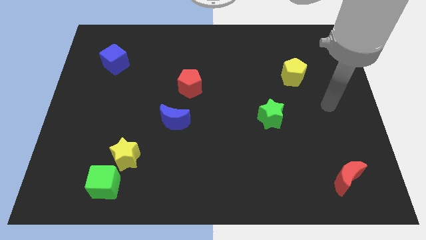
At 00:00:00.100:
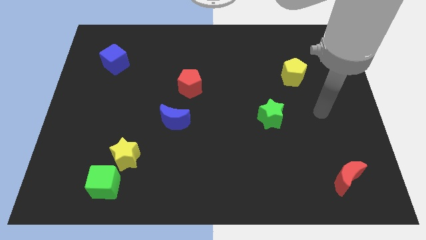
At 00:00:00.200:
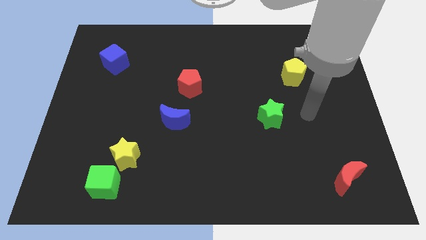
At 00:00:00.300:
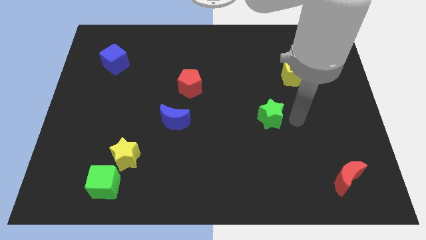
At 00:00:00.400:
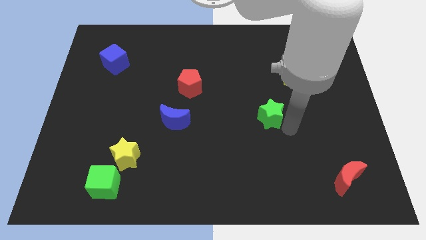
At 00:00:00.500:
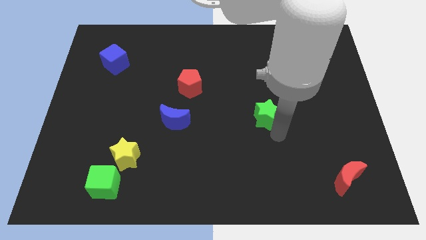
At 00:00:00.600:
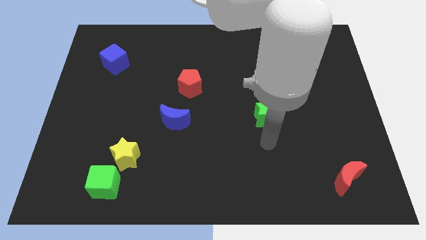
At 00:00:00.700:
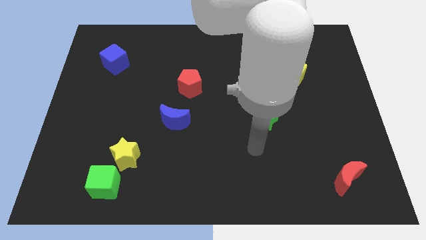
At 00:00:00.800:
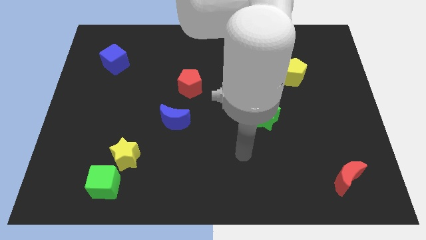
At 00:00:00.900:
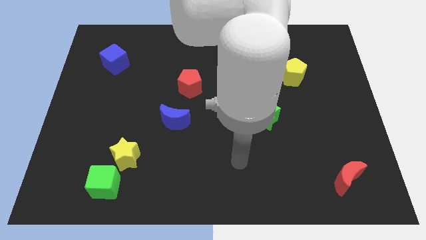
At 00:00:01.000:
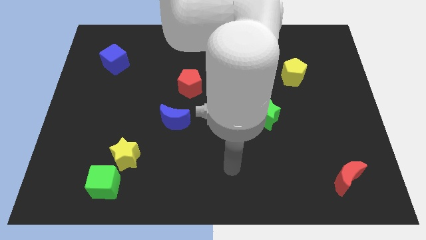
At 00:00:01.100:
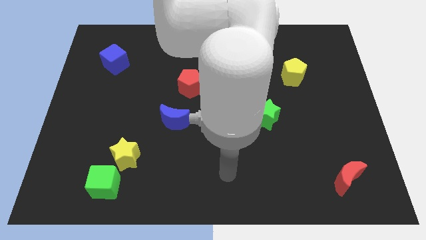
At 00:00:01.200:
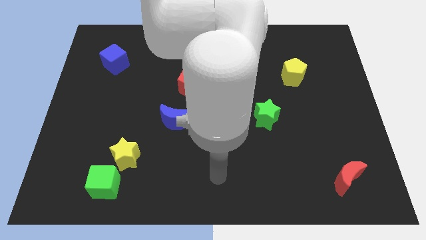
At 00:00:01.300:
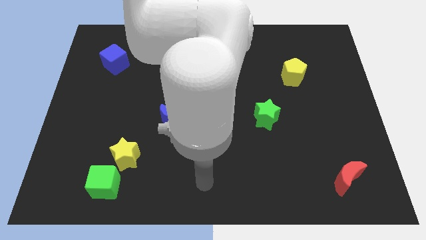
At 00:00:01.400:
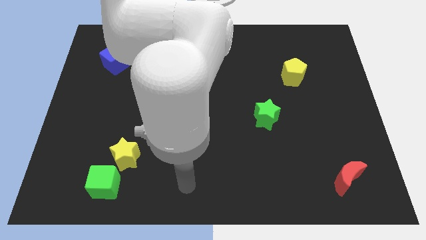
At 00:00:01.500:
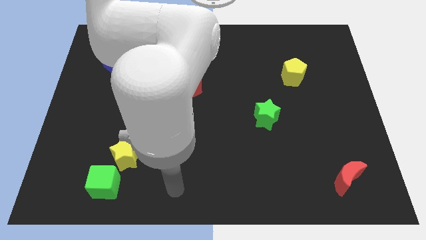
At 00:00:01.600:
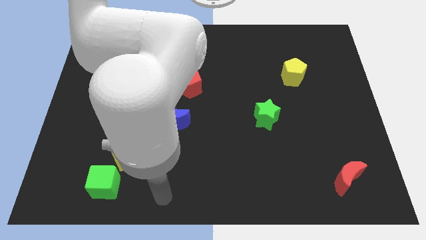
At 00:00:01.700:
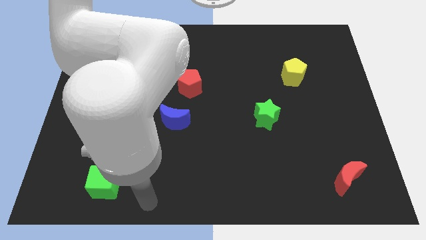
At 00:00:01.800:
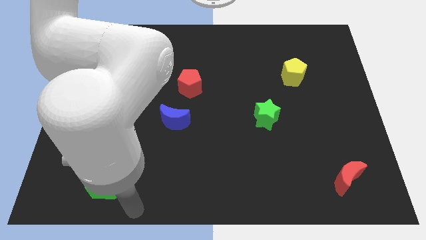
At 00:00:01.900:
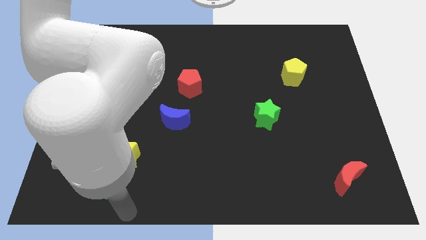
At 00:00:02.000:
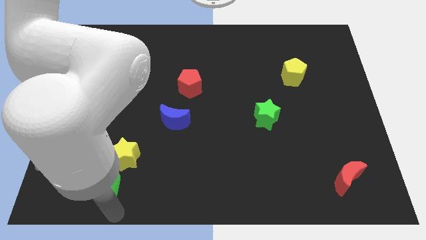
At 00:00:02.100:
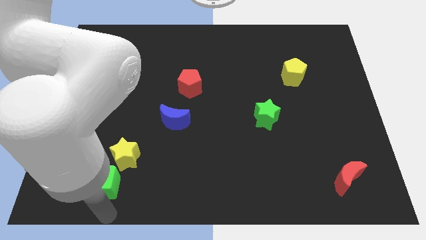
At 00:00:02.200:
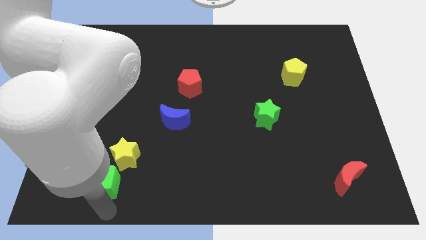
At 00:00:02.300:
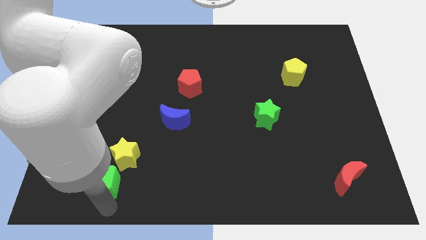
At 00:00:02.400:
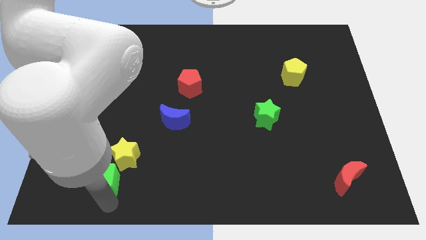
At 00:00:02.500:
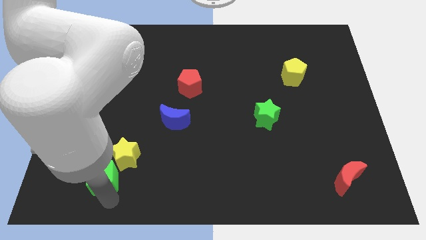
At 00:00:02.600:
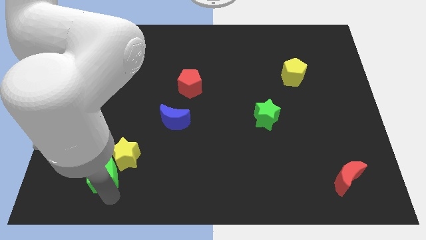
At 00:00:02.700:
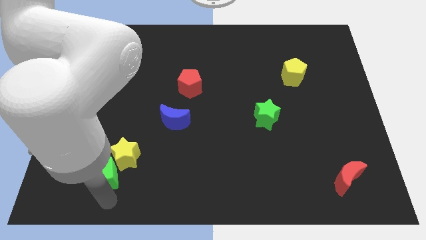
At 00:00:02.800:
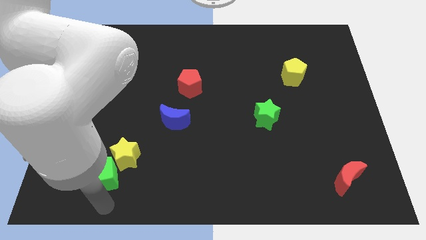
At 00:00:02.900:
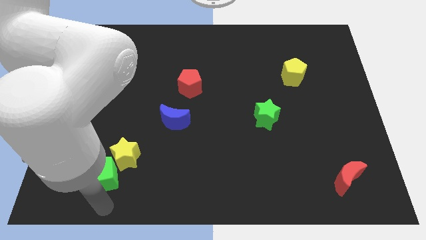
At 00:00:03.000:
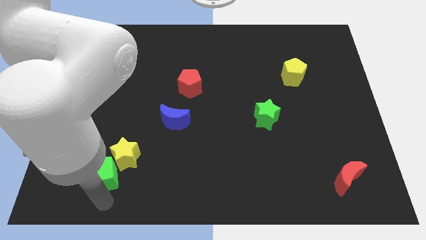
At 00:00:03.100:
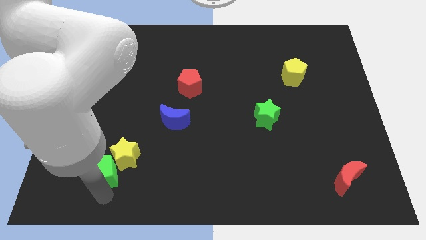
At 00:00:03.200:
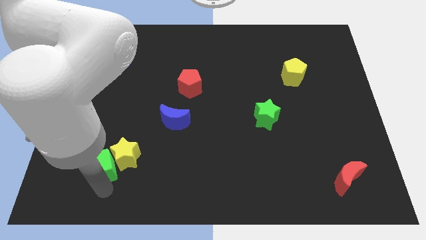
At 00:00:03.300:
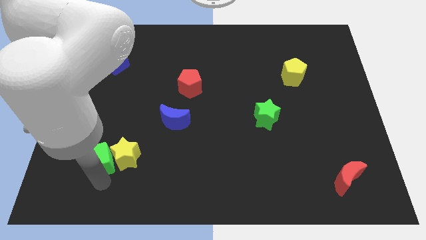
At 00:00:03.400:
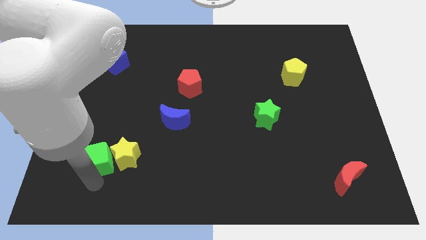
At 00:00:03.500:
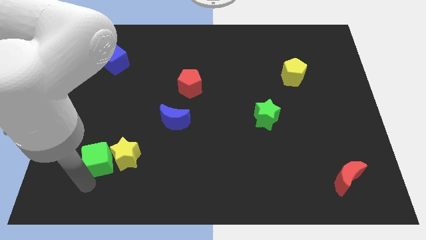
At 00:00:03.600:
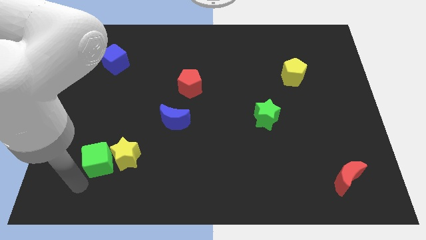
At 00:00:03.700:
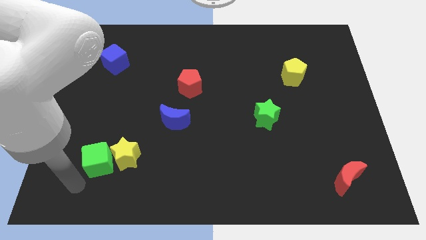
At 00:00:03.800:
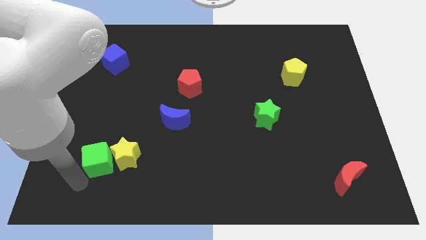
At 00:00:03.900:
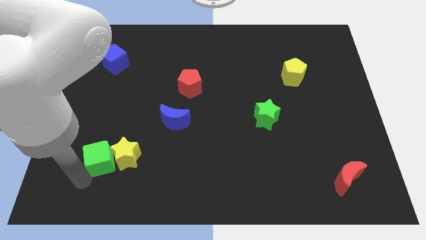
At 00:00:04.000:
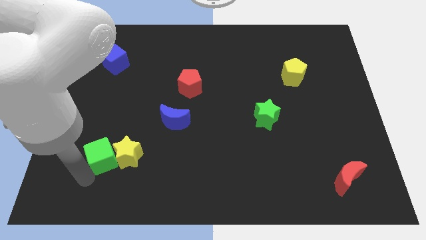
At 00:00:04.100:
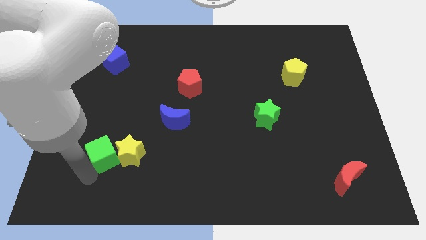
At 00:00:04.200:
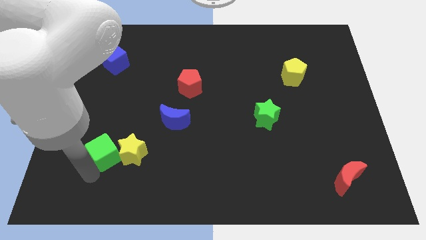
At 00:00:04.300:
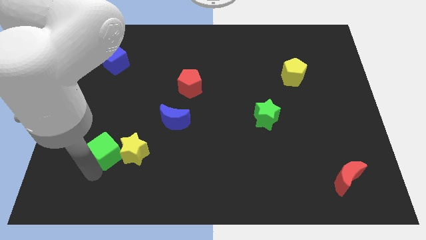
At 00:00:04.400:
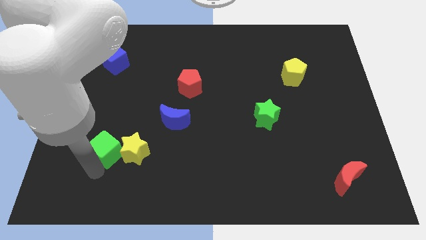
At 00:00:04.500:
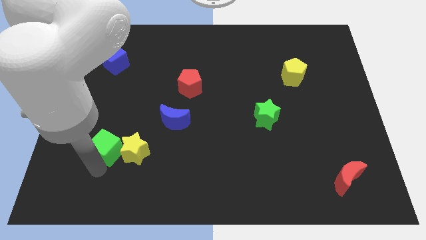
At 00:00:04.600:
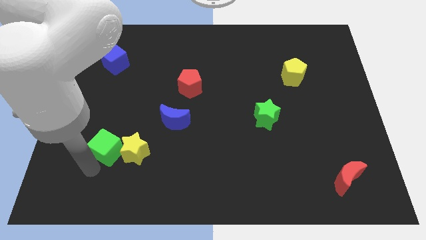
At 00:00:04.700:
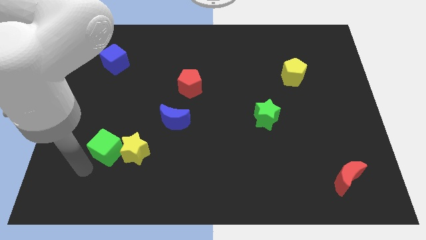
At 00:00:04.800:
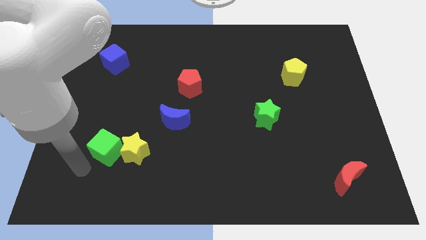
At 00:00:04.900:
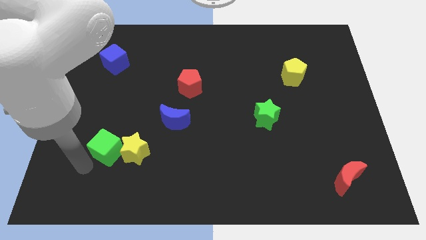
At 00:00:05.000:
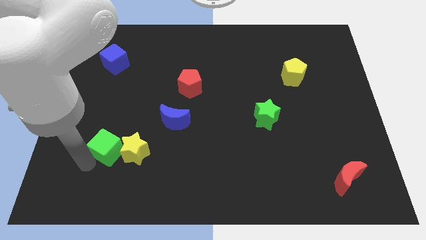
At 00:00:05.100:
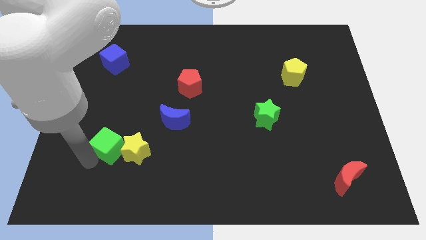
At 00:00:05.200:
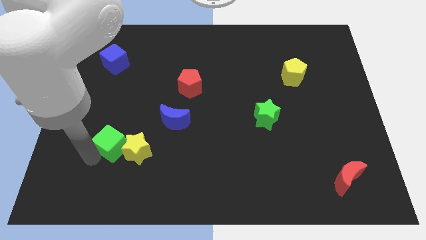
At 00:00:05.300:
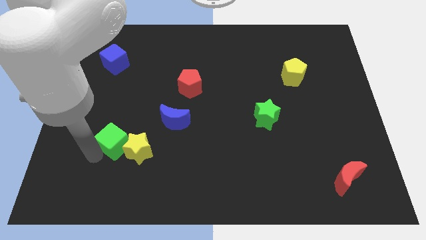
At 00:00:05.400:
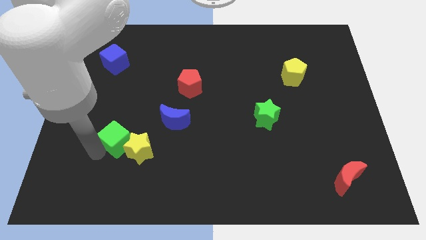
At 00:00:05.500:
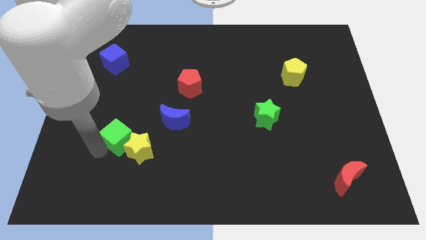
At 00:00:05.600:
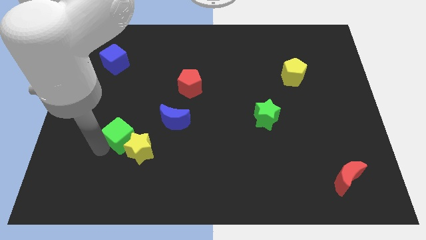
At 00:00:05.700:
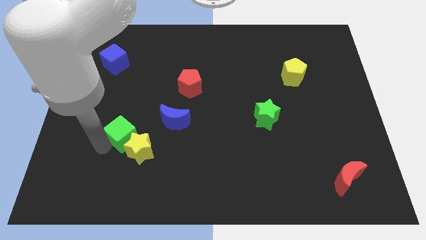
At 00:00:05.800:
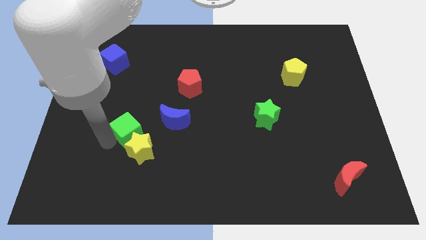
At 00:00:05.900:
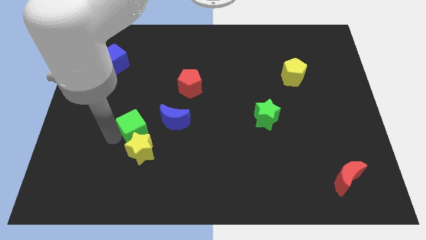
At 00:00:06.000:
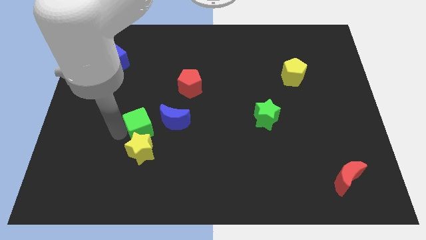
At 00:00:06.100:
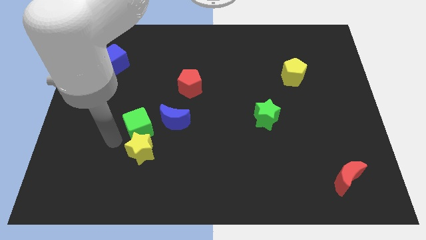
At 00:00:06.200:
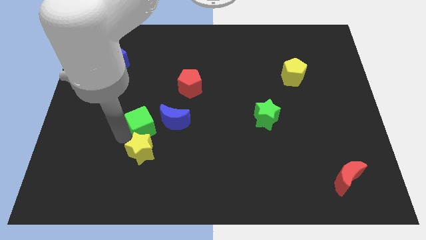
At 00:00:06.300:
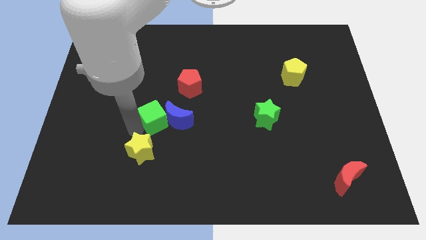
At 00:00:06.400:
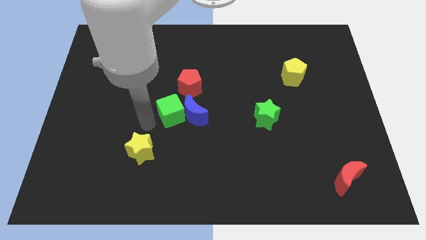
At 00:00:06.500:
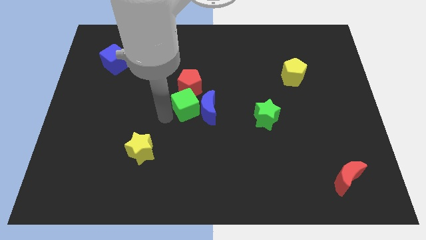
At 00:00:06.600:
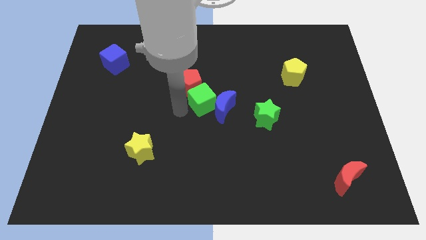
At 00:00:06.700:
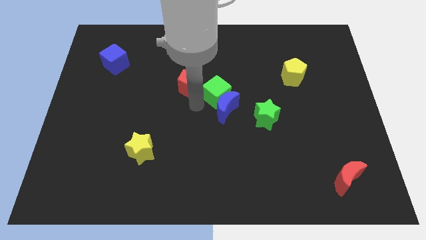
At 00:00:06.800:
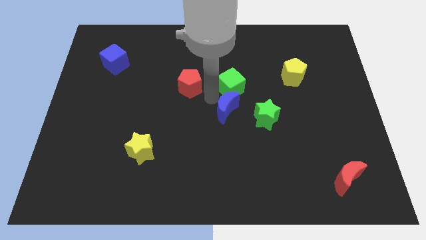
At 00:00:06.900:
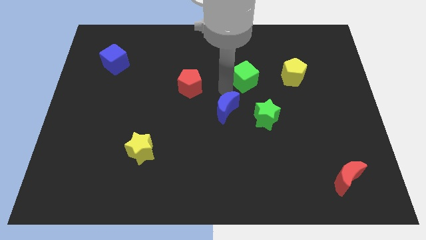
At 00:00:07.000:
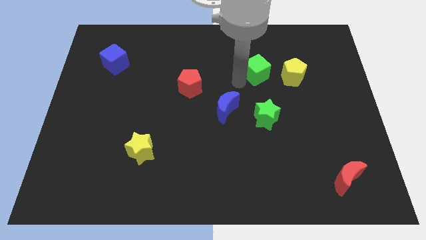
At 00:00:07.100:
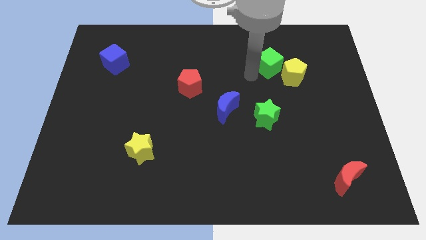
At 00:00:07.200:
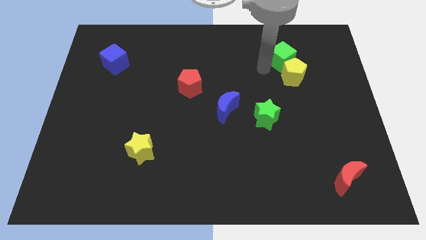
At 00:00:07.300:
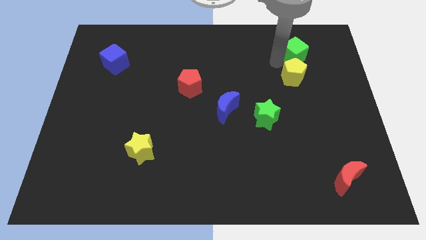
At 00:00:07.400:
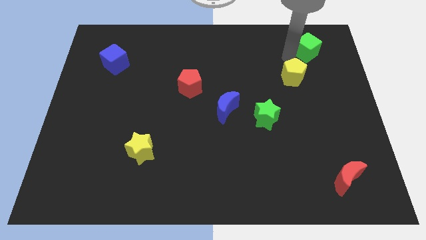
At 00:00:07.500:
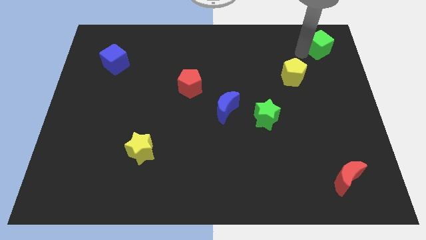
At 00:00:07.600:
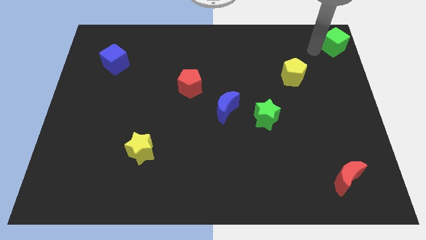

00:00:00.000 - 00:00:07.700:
move the green cube to the top right of the board
